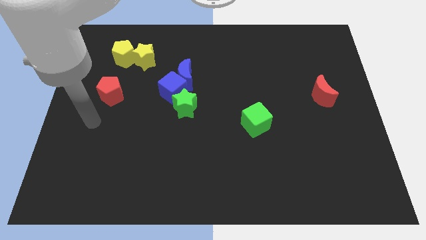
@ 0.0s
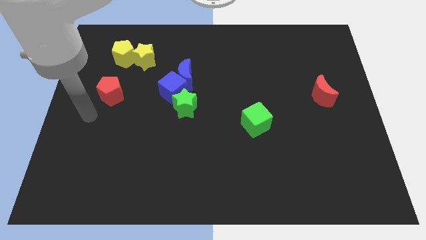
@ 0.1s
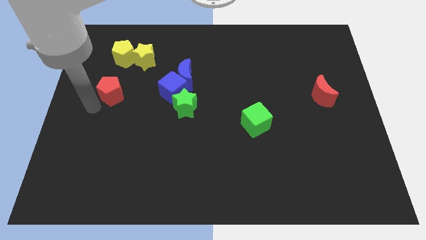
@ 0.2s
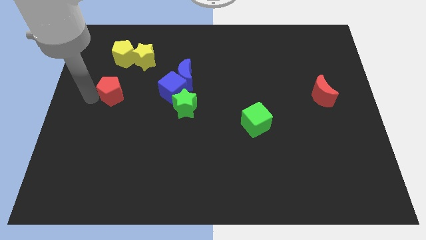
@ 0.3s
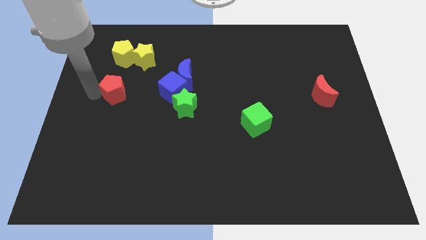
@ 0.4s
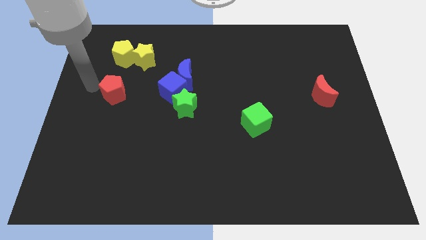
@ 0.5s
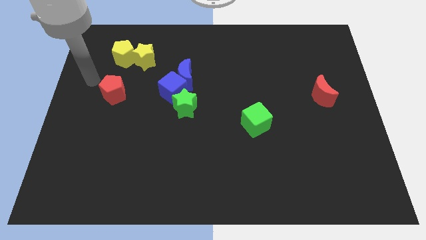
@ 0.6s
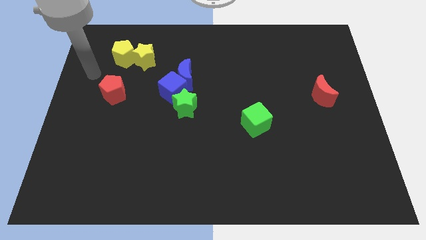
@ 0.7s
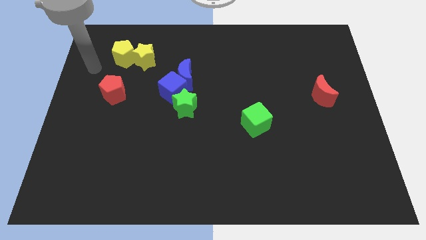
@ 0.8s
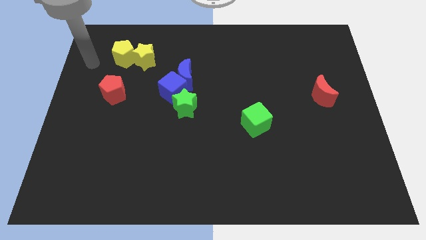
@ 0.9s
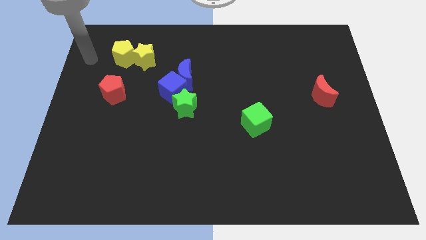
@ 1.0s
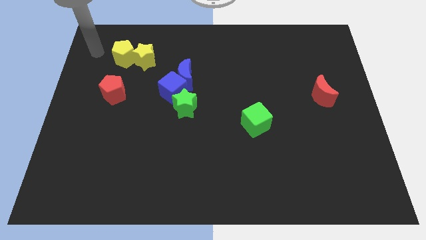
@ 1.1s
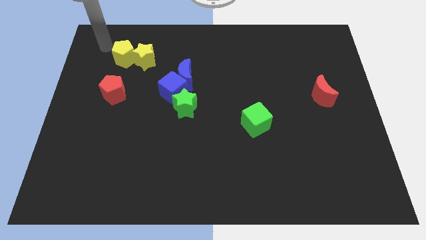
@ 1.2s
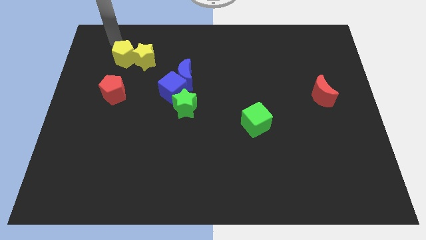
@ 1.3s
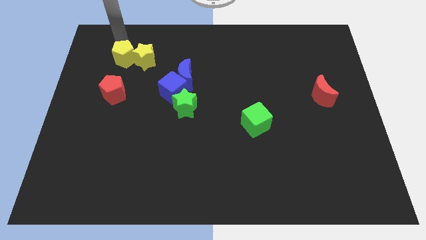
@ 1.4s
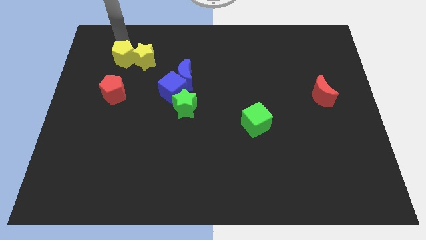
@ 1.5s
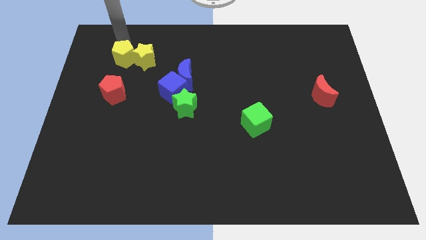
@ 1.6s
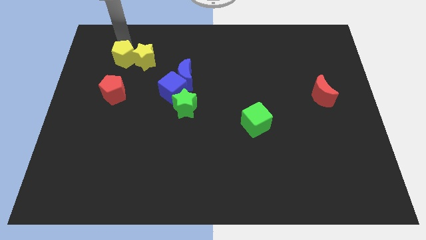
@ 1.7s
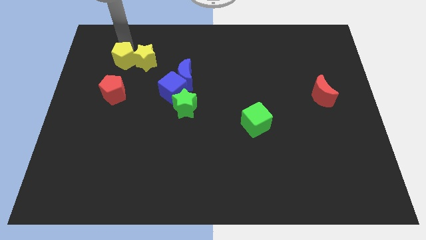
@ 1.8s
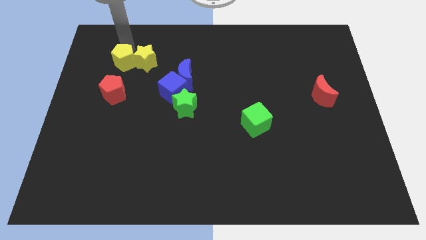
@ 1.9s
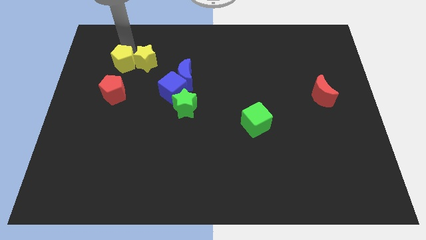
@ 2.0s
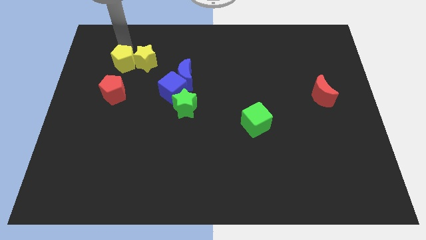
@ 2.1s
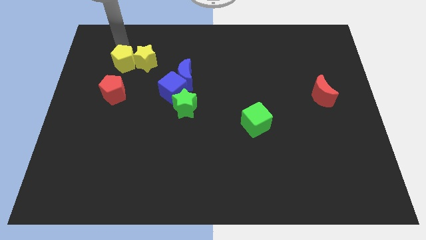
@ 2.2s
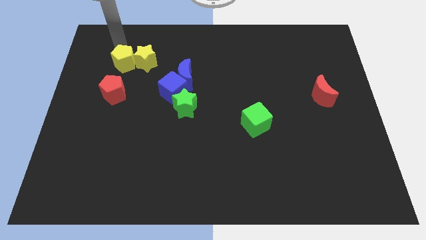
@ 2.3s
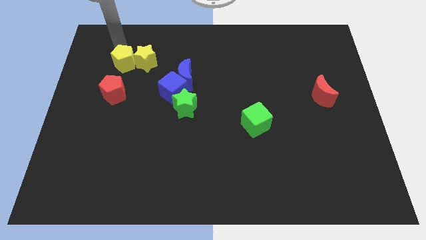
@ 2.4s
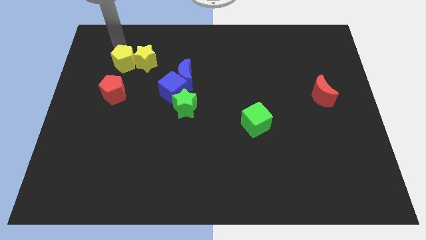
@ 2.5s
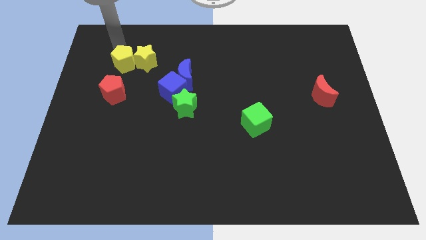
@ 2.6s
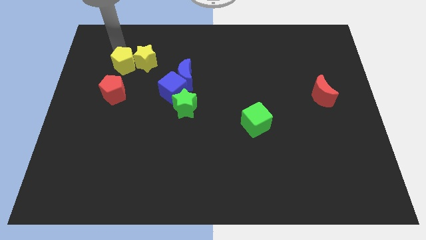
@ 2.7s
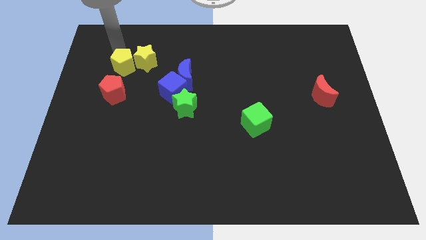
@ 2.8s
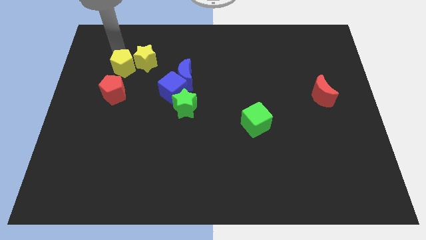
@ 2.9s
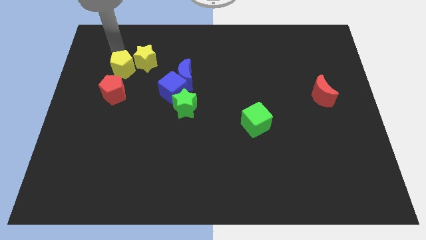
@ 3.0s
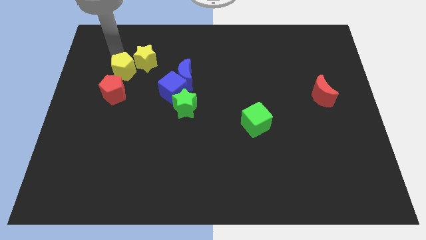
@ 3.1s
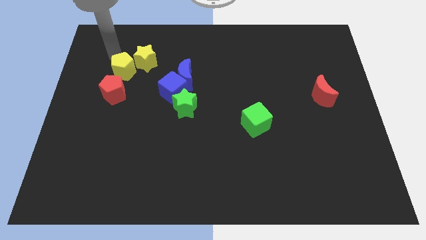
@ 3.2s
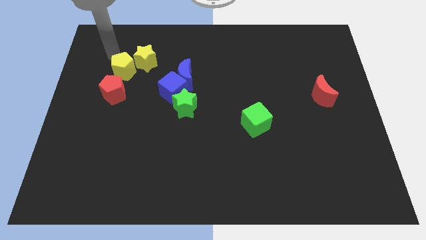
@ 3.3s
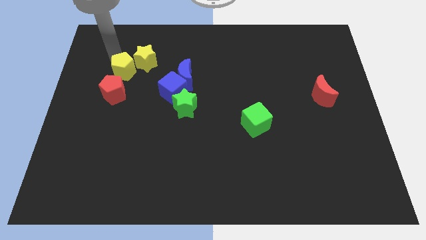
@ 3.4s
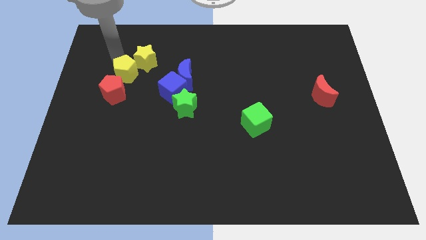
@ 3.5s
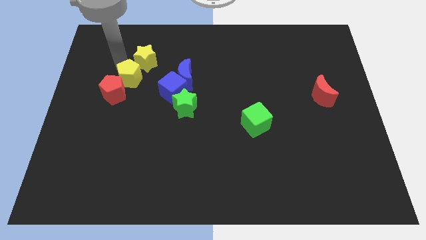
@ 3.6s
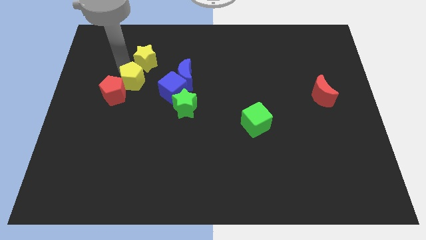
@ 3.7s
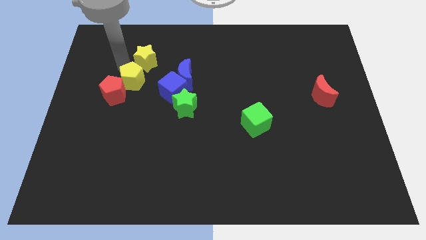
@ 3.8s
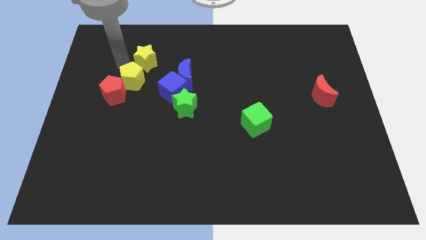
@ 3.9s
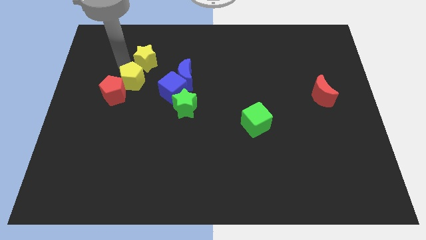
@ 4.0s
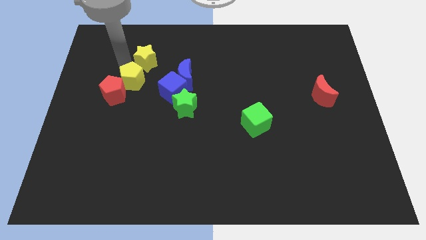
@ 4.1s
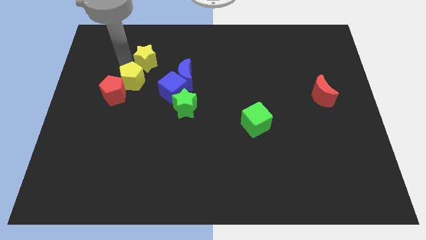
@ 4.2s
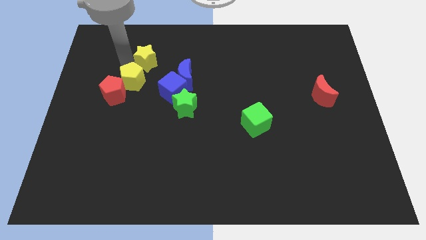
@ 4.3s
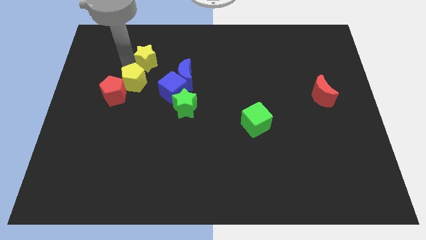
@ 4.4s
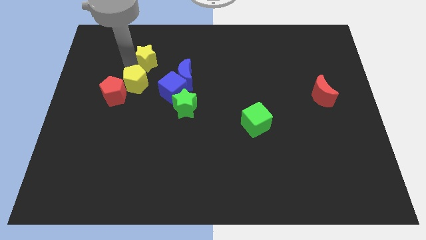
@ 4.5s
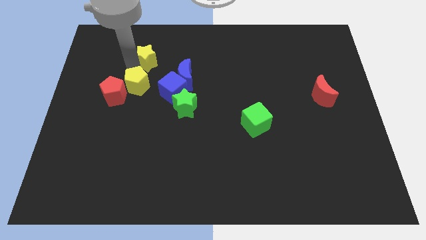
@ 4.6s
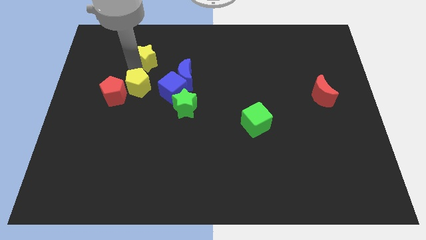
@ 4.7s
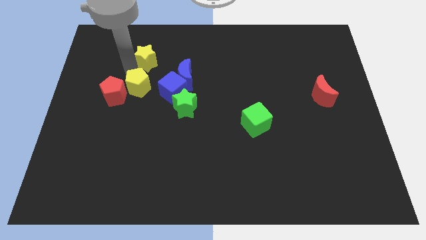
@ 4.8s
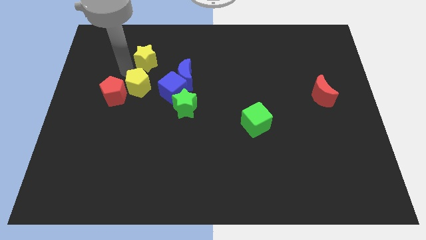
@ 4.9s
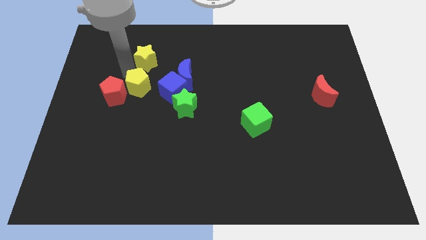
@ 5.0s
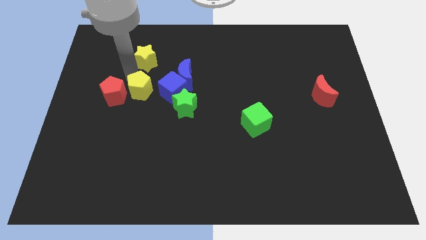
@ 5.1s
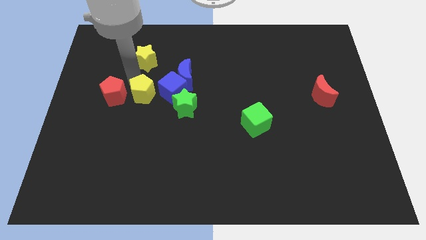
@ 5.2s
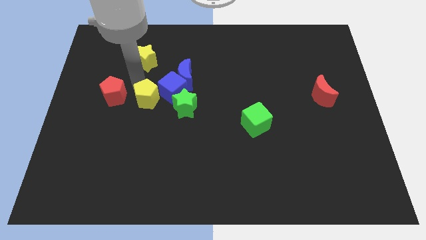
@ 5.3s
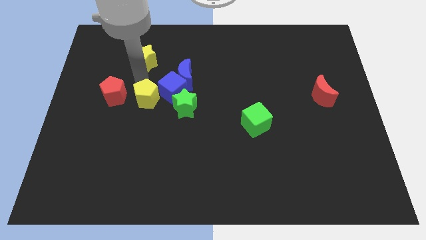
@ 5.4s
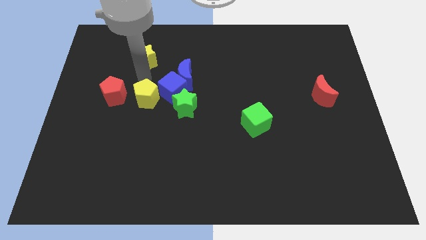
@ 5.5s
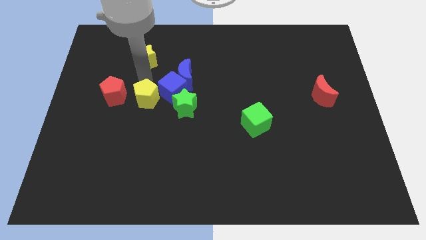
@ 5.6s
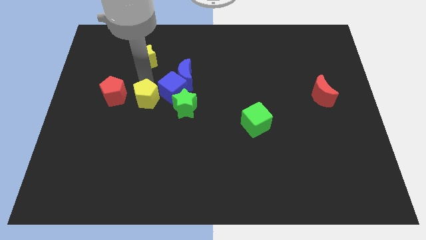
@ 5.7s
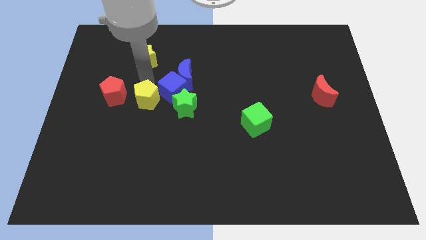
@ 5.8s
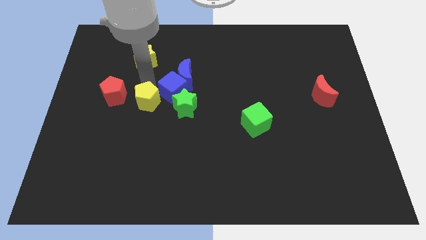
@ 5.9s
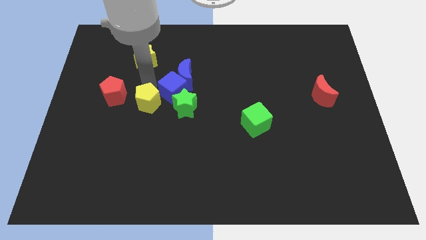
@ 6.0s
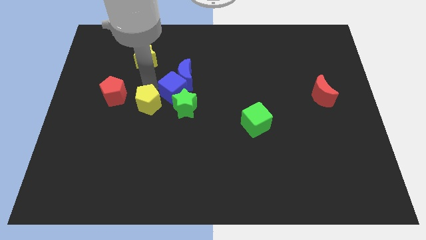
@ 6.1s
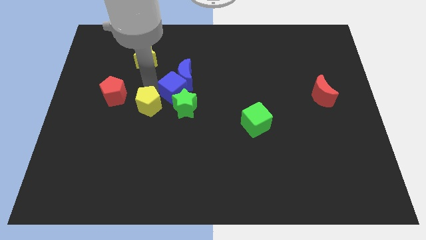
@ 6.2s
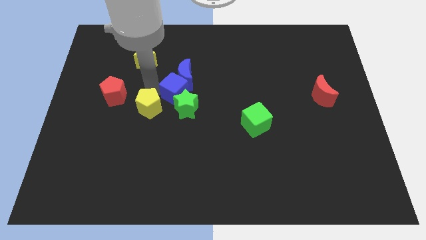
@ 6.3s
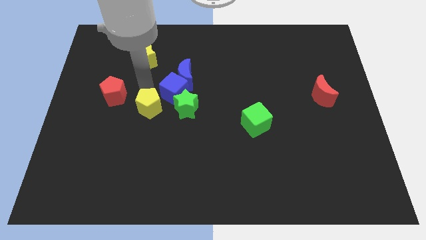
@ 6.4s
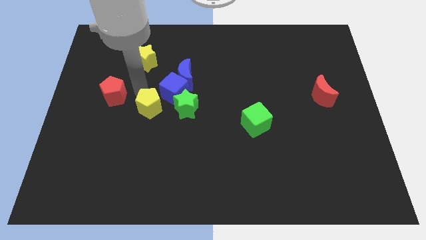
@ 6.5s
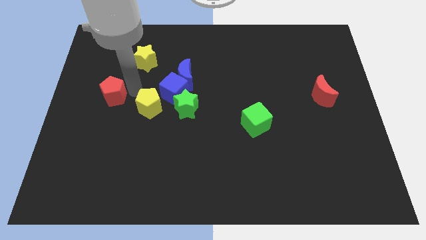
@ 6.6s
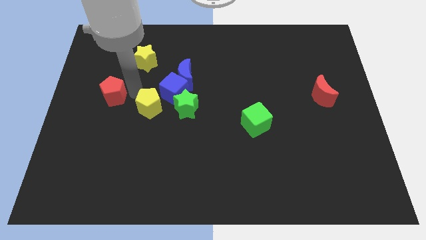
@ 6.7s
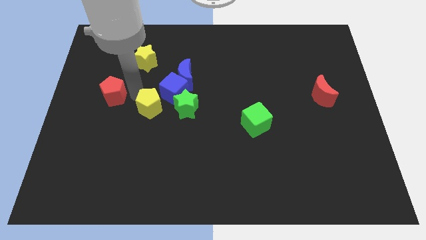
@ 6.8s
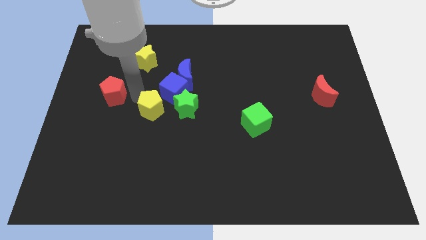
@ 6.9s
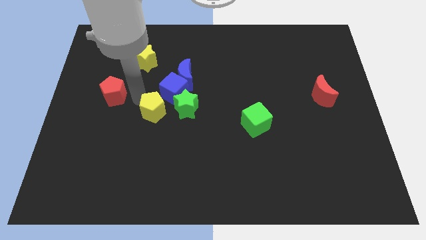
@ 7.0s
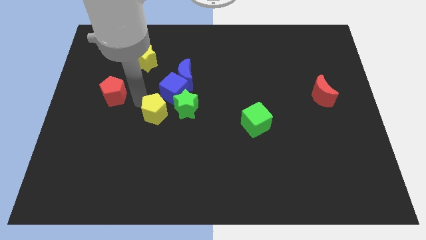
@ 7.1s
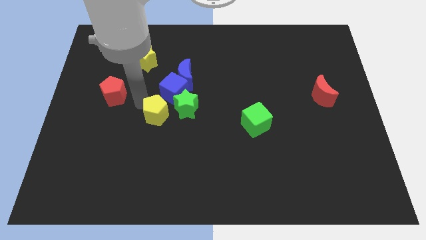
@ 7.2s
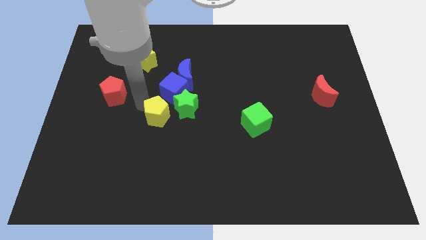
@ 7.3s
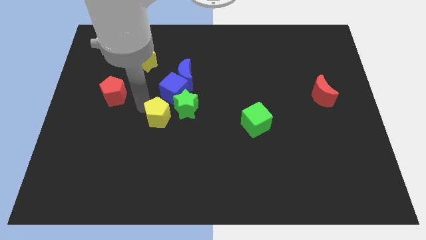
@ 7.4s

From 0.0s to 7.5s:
move the yellow pentagon down and to the right

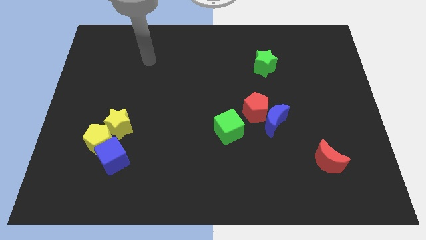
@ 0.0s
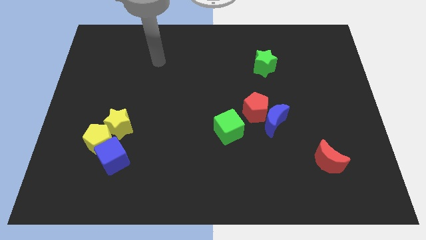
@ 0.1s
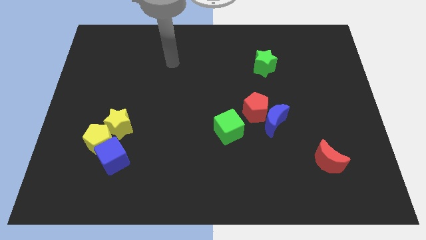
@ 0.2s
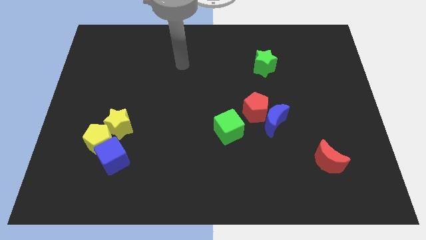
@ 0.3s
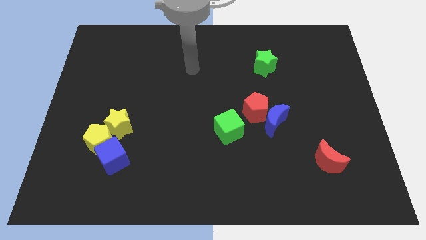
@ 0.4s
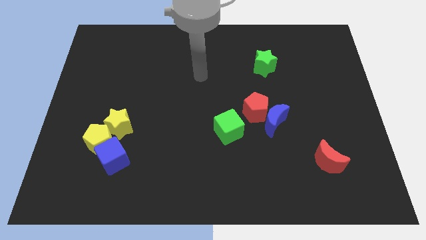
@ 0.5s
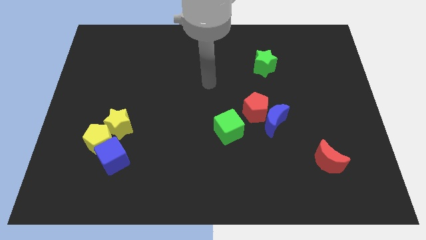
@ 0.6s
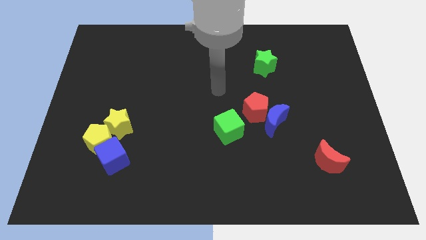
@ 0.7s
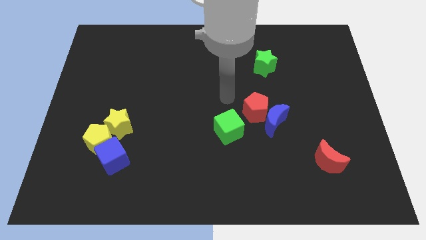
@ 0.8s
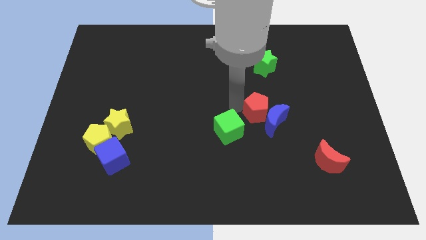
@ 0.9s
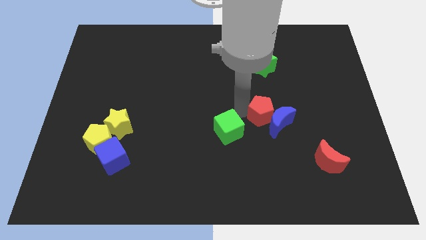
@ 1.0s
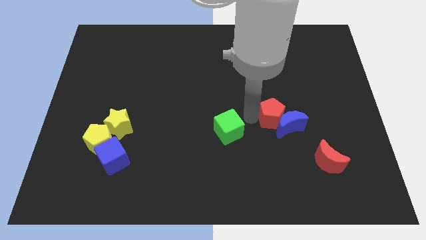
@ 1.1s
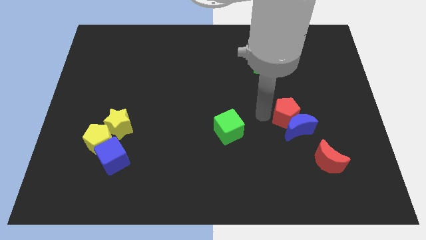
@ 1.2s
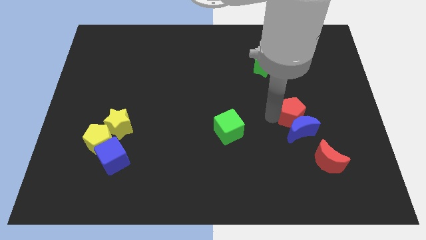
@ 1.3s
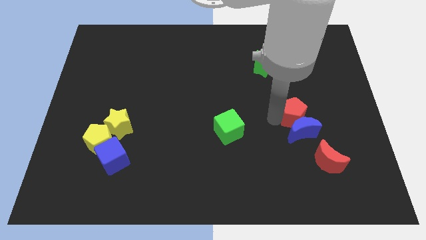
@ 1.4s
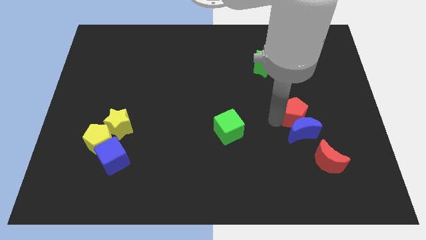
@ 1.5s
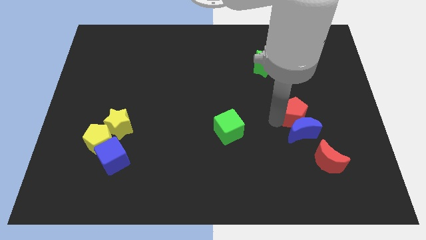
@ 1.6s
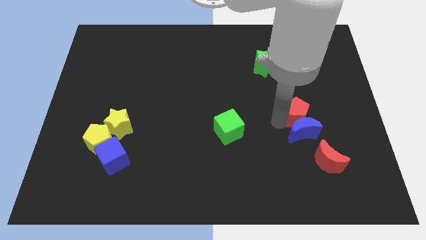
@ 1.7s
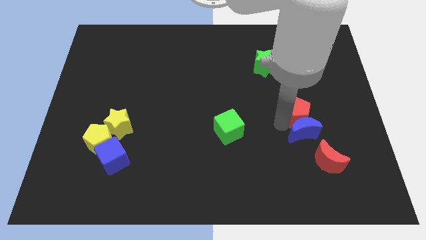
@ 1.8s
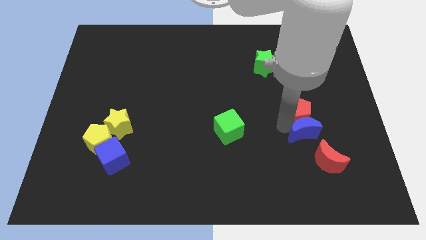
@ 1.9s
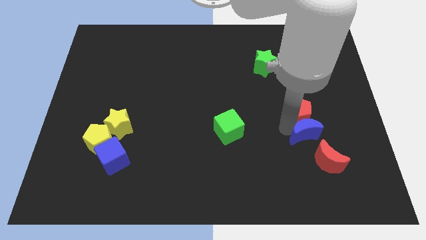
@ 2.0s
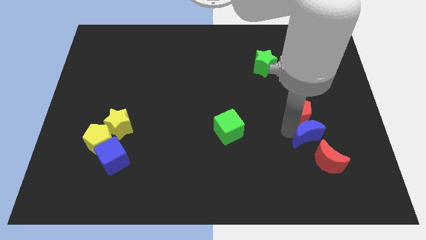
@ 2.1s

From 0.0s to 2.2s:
slightly slide the blue moon downwards and to the right
